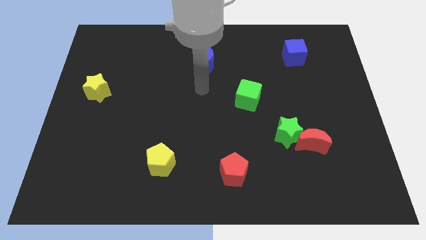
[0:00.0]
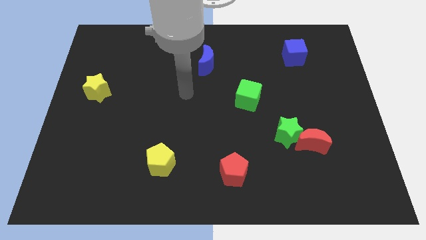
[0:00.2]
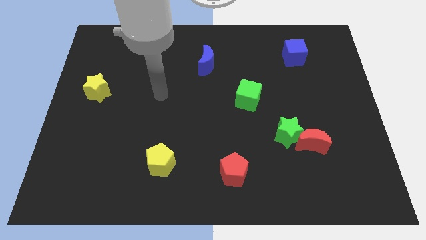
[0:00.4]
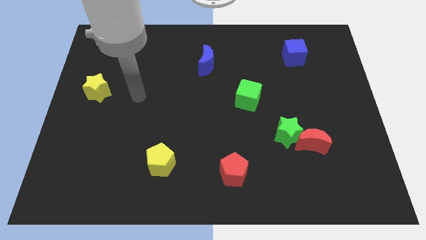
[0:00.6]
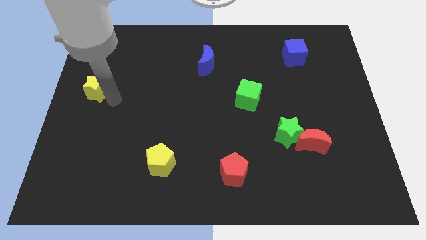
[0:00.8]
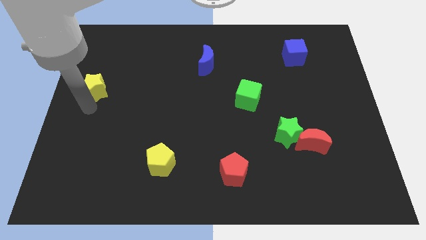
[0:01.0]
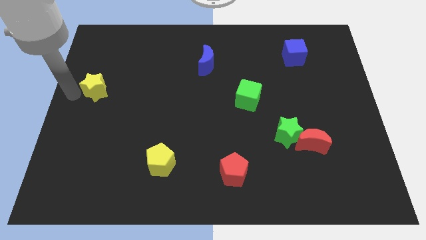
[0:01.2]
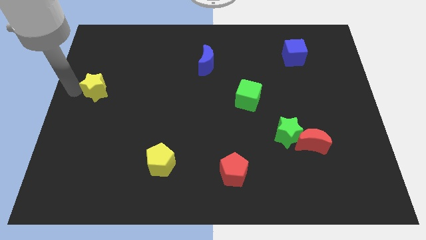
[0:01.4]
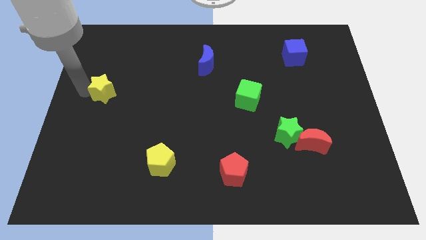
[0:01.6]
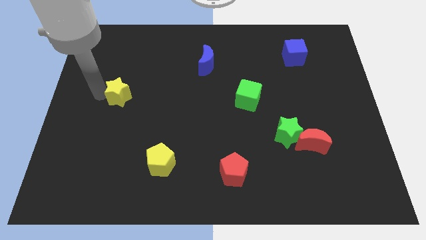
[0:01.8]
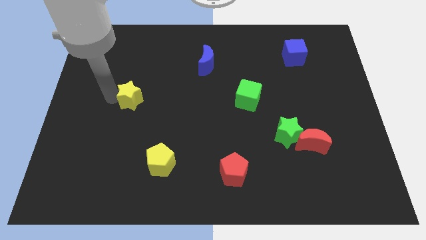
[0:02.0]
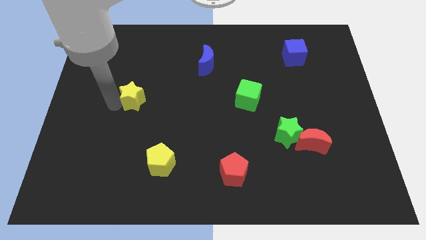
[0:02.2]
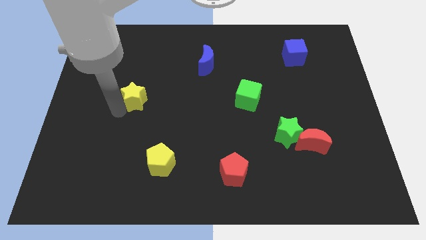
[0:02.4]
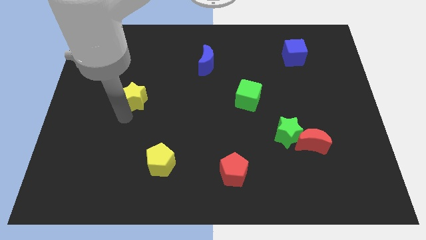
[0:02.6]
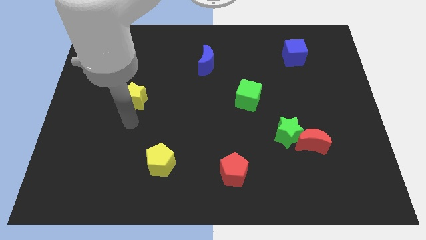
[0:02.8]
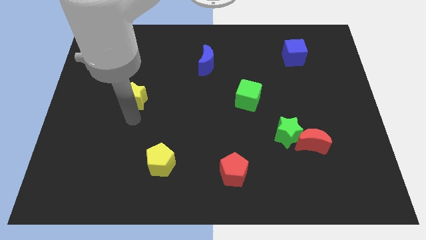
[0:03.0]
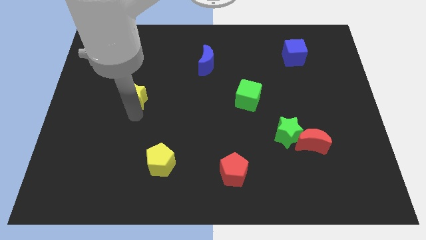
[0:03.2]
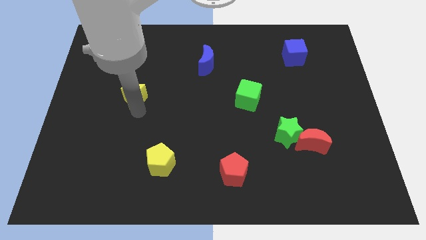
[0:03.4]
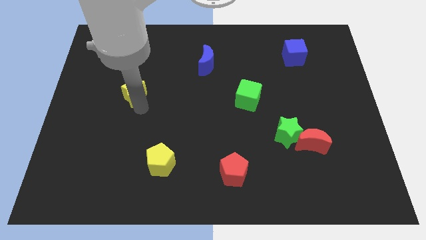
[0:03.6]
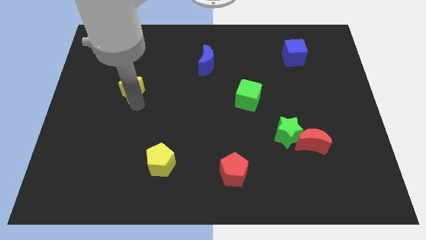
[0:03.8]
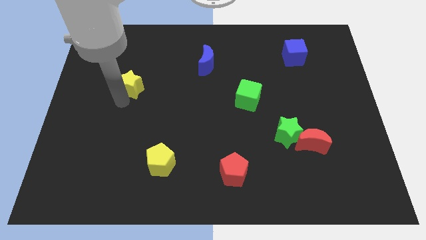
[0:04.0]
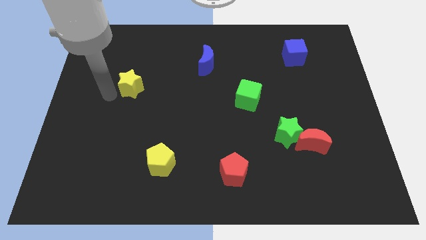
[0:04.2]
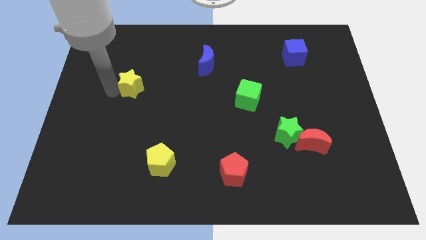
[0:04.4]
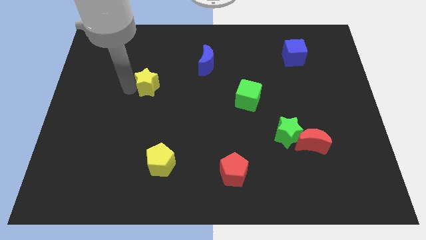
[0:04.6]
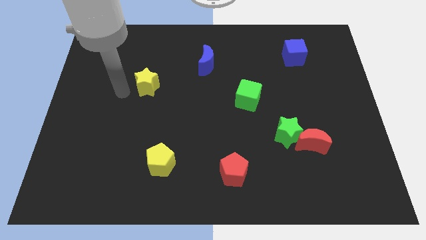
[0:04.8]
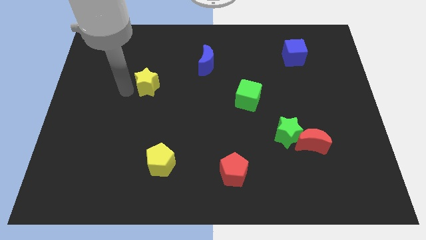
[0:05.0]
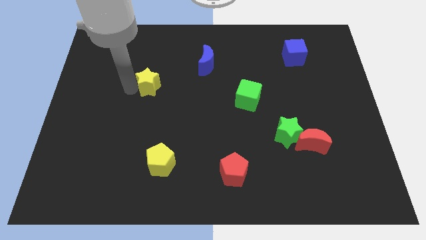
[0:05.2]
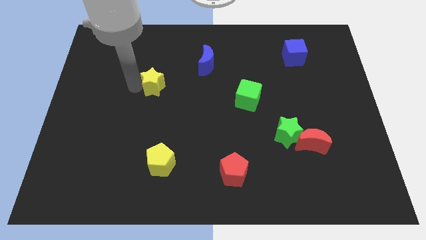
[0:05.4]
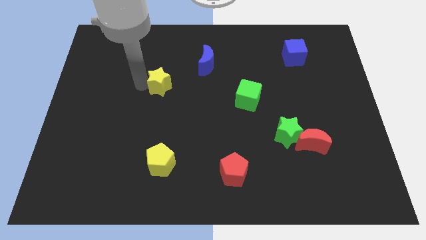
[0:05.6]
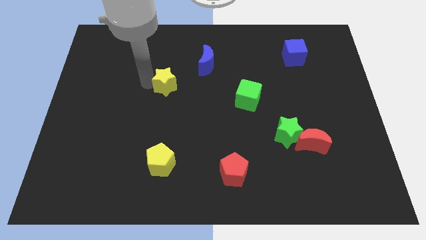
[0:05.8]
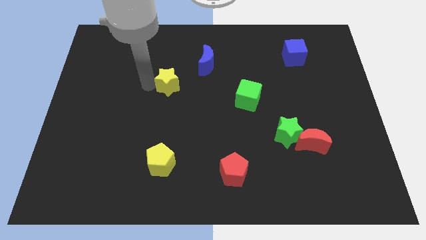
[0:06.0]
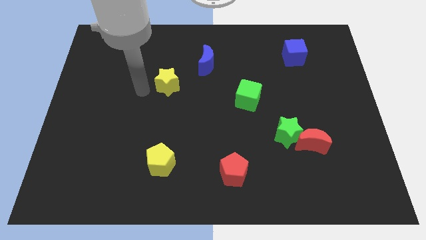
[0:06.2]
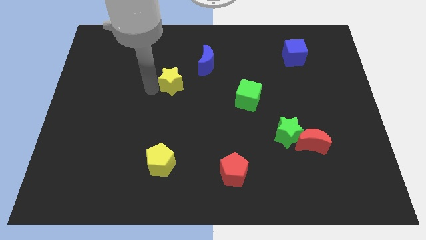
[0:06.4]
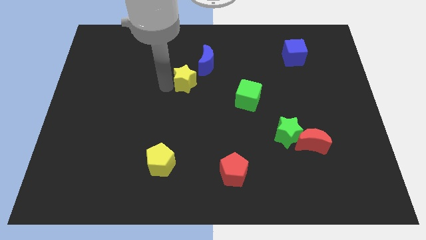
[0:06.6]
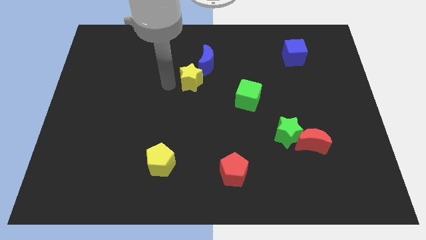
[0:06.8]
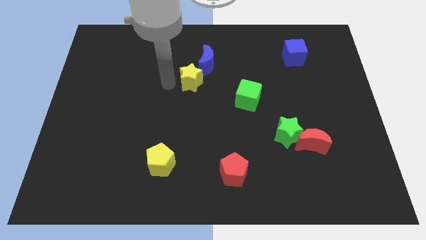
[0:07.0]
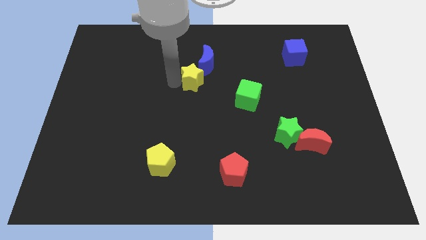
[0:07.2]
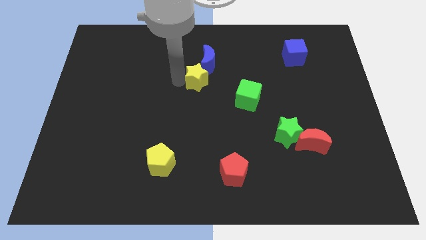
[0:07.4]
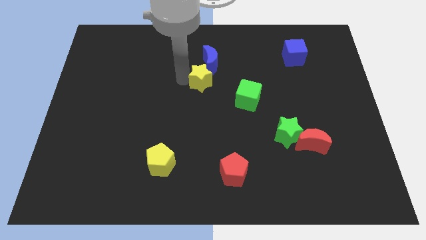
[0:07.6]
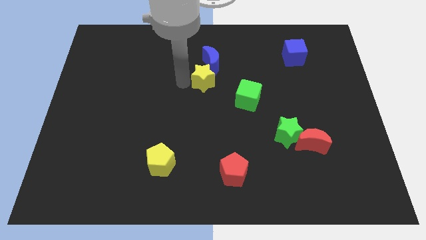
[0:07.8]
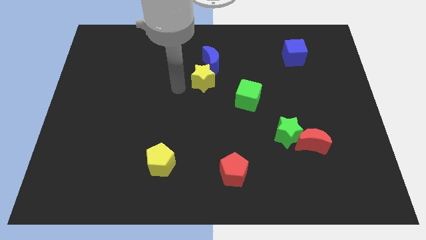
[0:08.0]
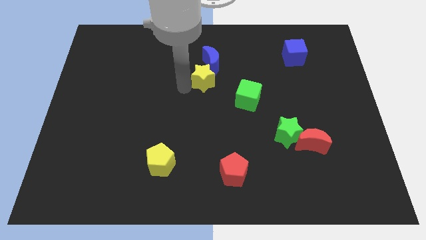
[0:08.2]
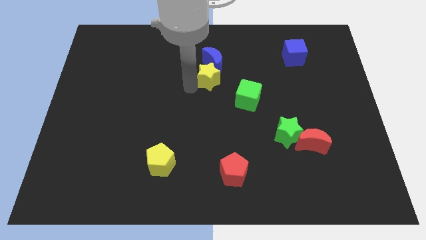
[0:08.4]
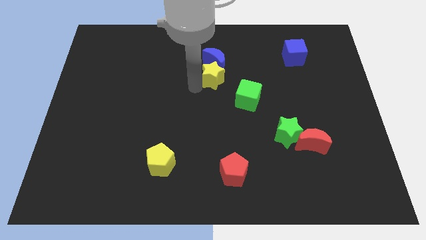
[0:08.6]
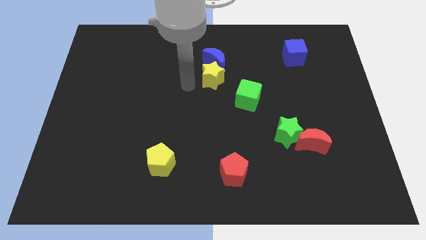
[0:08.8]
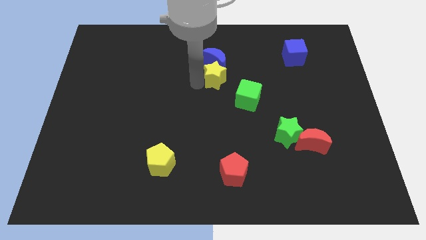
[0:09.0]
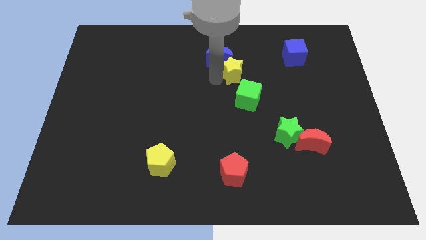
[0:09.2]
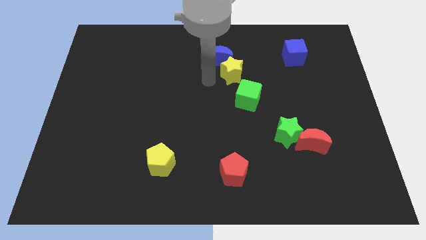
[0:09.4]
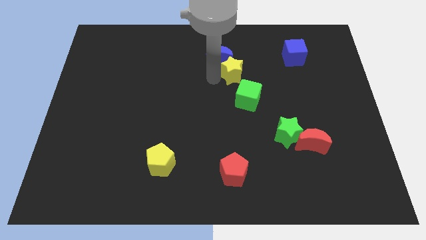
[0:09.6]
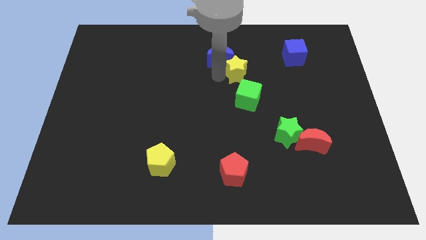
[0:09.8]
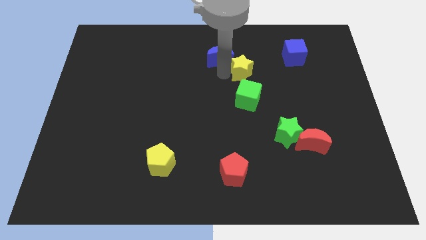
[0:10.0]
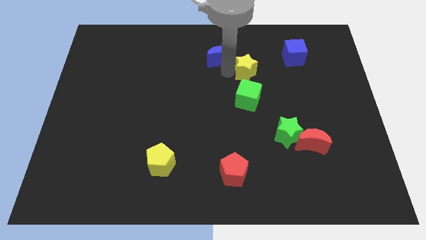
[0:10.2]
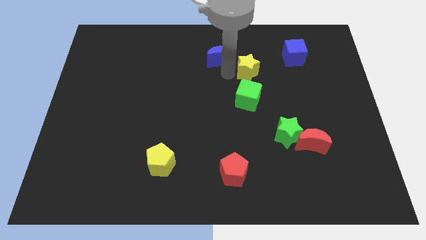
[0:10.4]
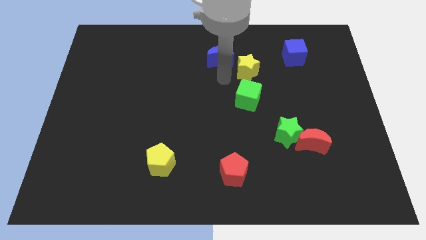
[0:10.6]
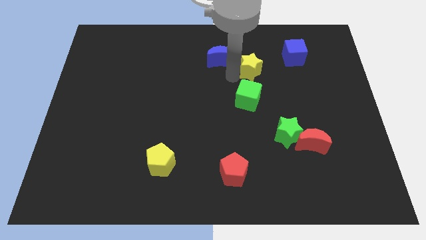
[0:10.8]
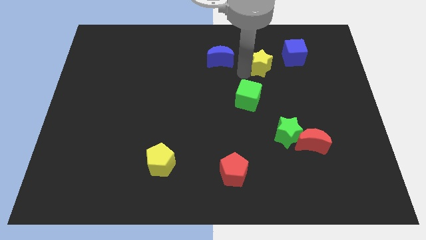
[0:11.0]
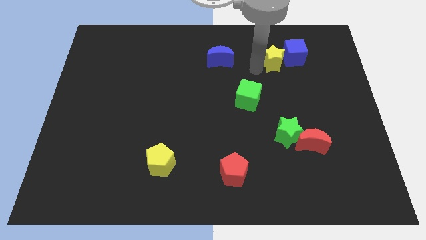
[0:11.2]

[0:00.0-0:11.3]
push the yellow star next to the blue cube

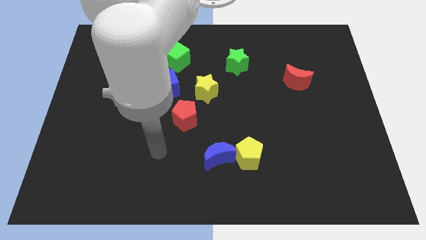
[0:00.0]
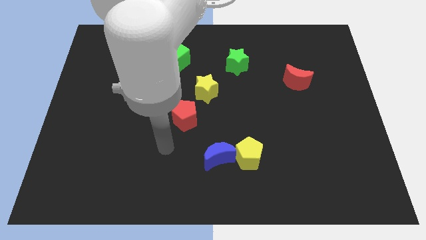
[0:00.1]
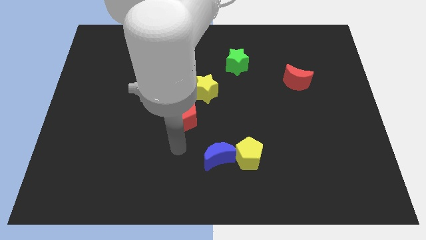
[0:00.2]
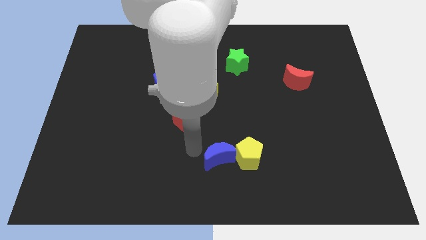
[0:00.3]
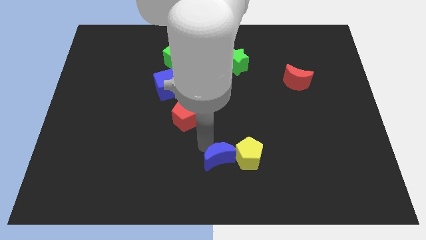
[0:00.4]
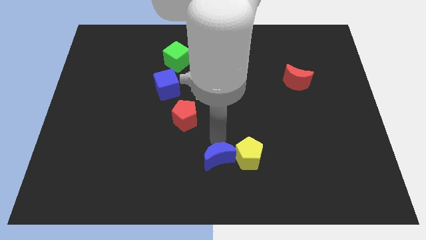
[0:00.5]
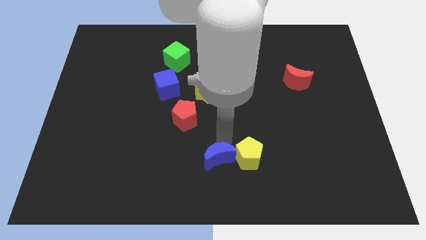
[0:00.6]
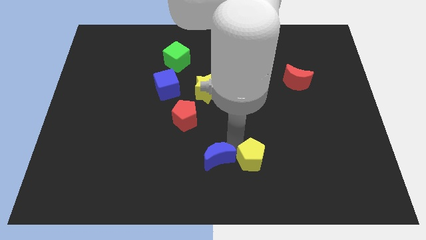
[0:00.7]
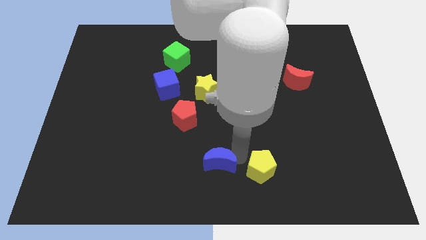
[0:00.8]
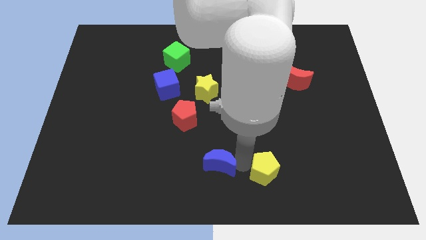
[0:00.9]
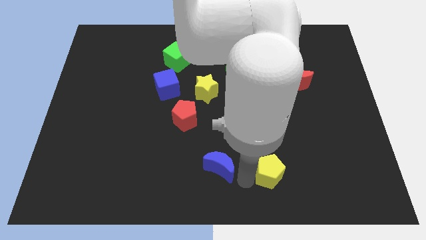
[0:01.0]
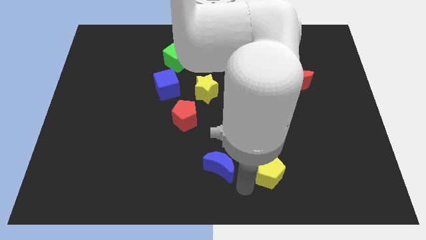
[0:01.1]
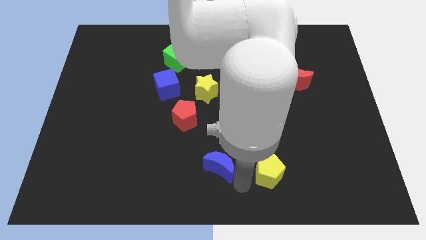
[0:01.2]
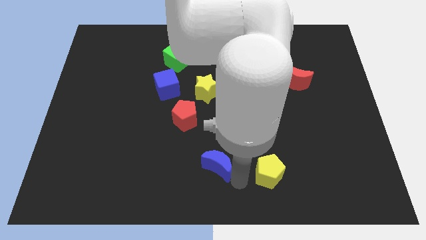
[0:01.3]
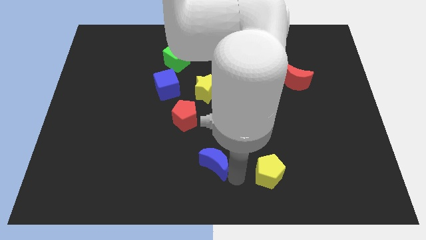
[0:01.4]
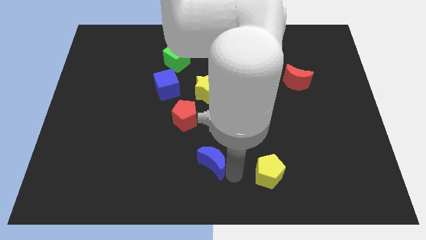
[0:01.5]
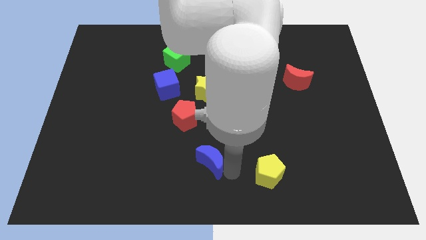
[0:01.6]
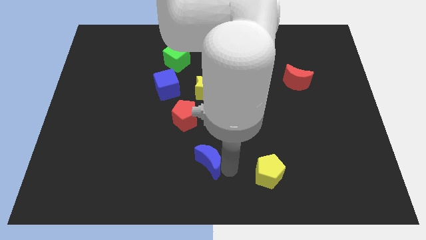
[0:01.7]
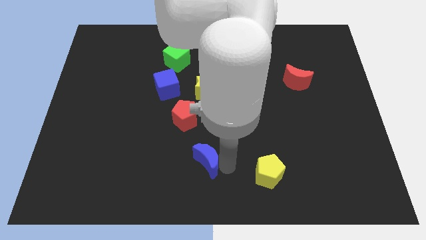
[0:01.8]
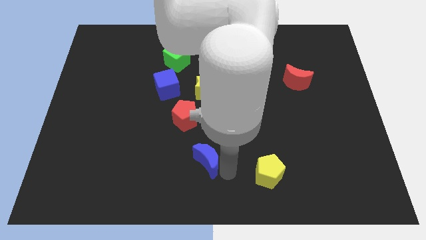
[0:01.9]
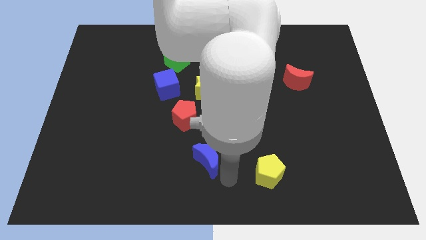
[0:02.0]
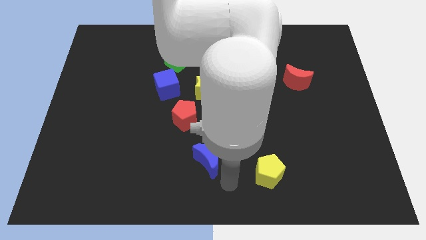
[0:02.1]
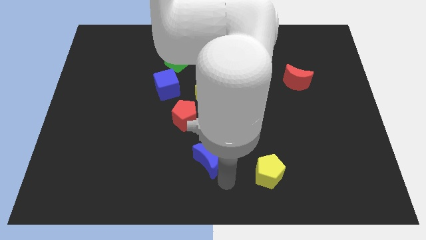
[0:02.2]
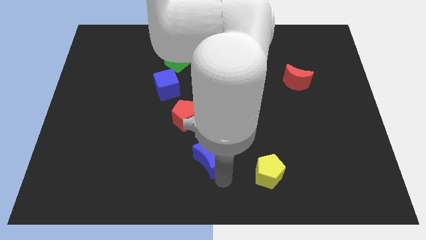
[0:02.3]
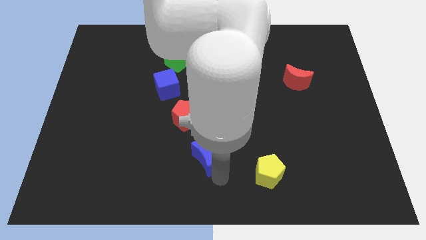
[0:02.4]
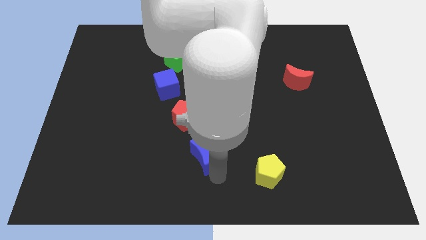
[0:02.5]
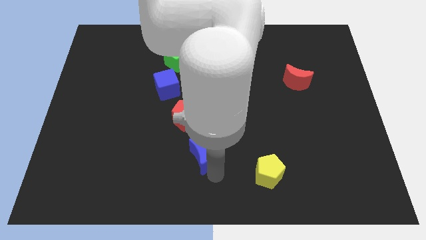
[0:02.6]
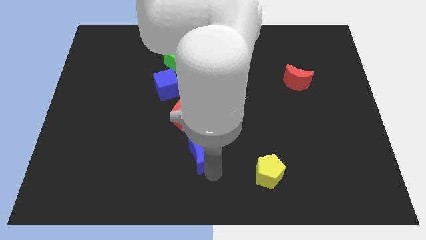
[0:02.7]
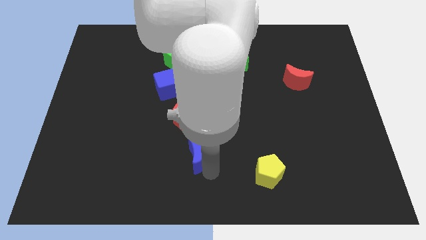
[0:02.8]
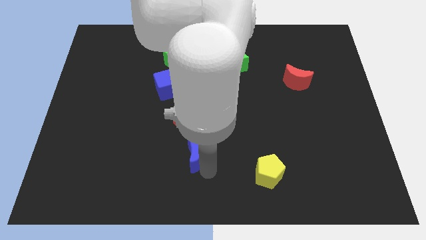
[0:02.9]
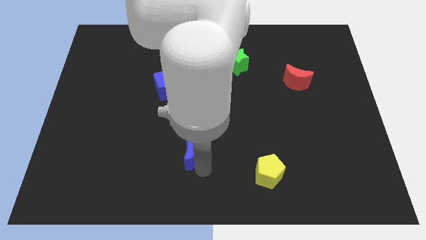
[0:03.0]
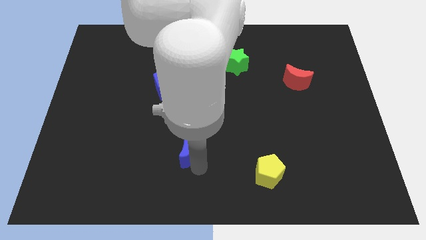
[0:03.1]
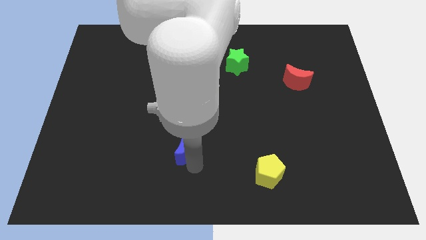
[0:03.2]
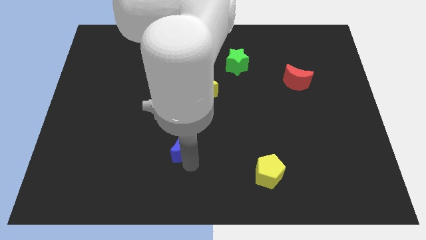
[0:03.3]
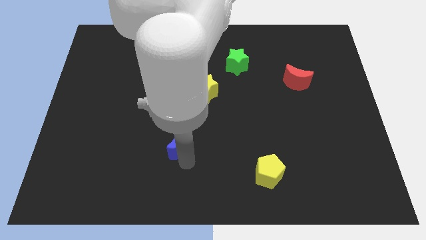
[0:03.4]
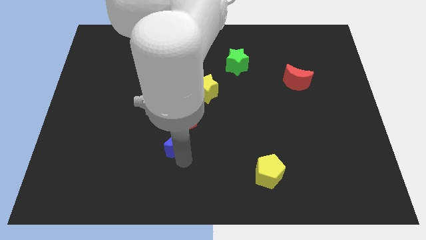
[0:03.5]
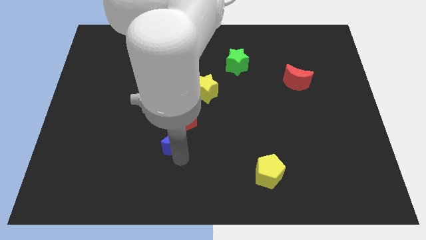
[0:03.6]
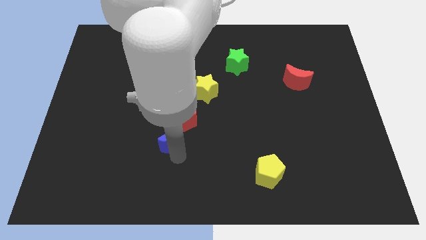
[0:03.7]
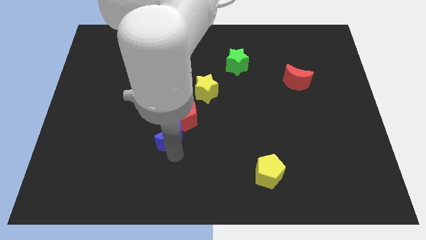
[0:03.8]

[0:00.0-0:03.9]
push the blue moon to the red pentagon
